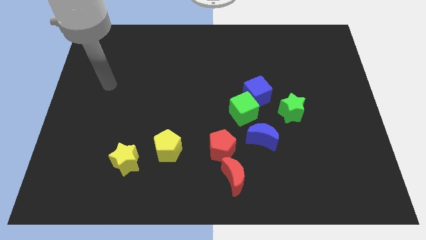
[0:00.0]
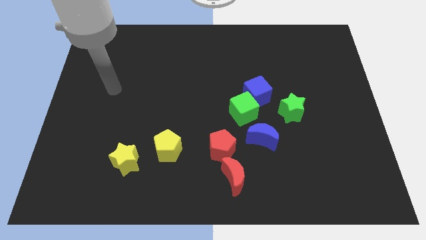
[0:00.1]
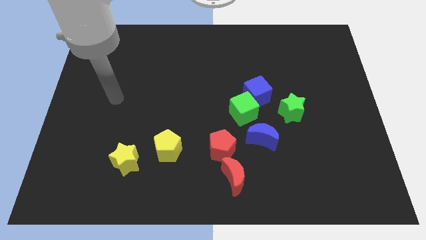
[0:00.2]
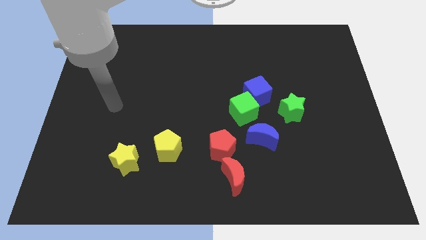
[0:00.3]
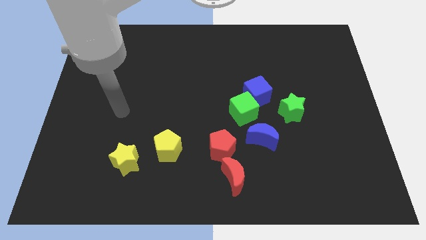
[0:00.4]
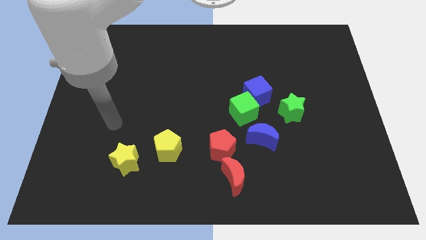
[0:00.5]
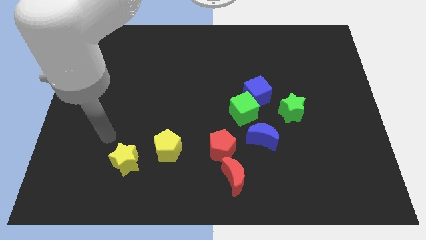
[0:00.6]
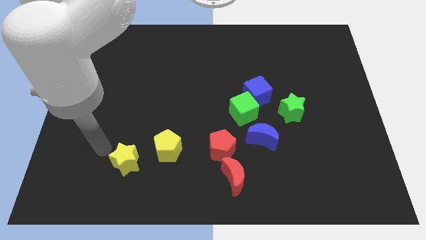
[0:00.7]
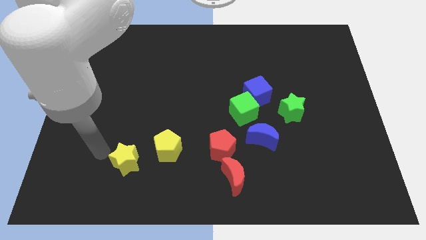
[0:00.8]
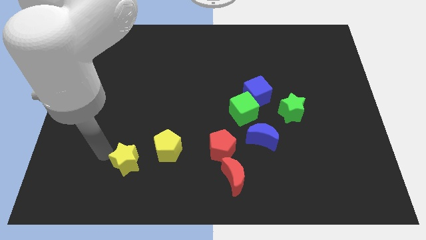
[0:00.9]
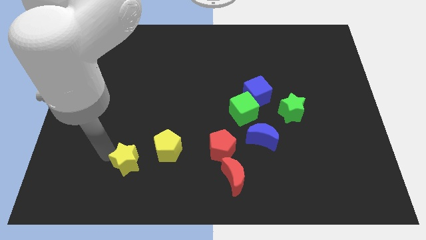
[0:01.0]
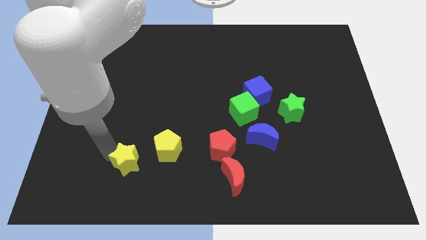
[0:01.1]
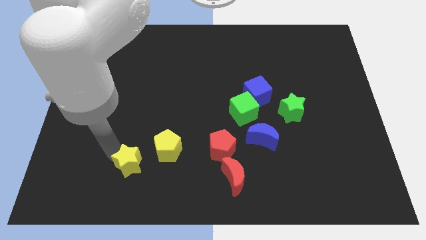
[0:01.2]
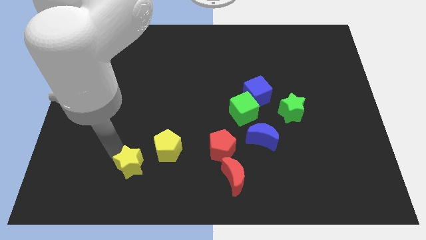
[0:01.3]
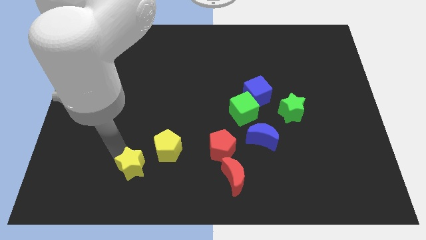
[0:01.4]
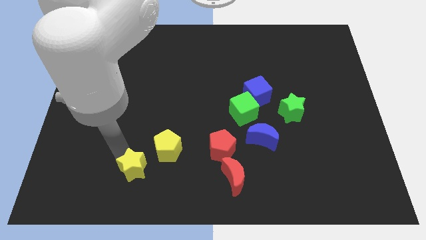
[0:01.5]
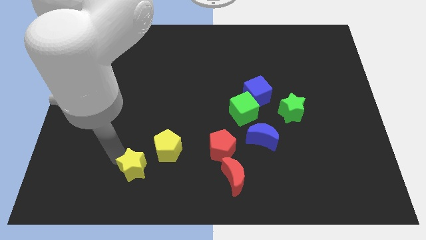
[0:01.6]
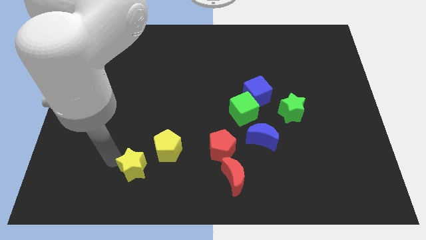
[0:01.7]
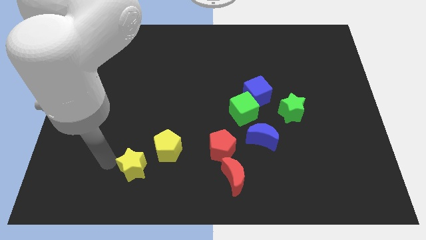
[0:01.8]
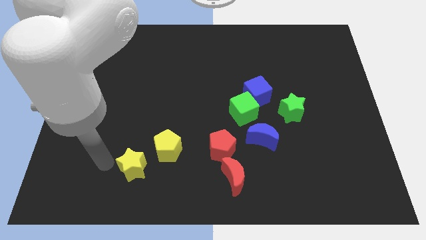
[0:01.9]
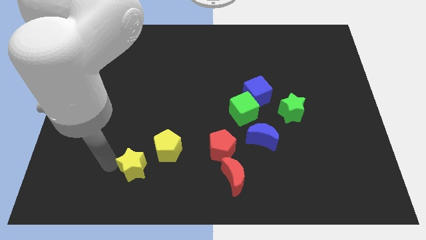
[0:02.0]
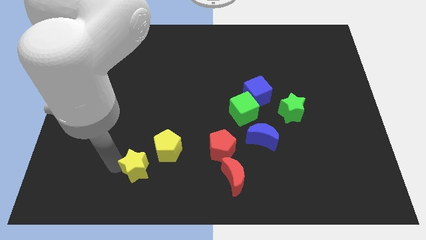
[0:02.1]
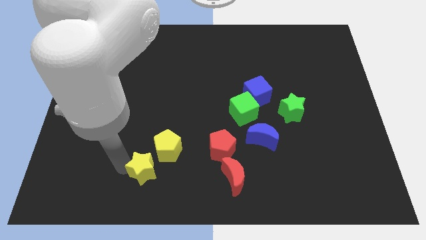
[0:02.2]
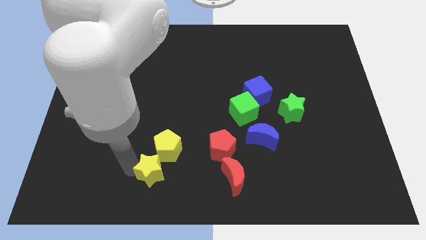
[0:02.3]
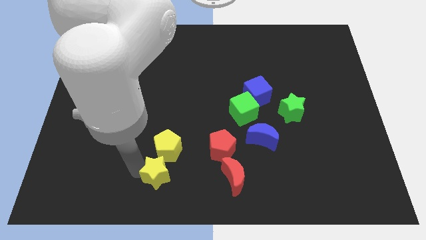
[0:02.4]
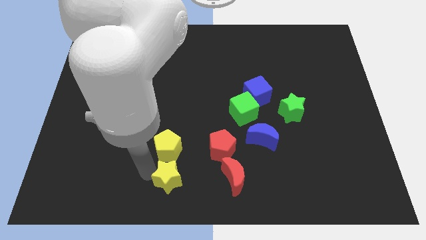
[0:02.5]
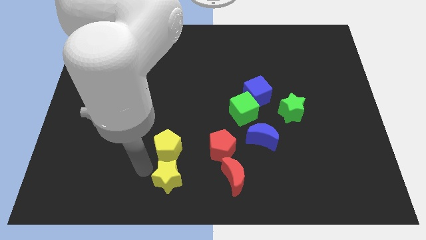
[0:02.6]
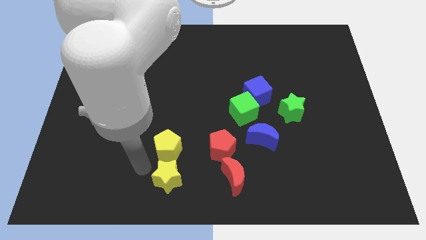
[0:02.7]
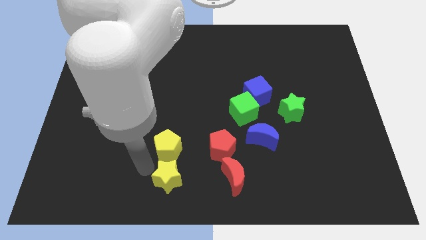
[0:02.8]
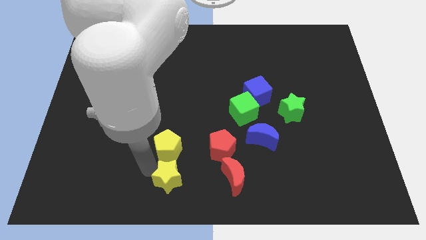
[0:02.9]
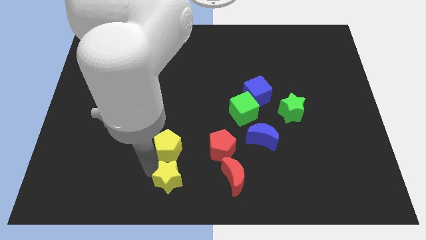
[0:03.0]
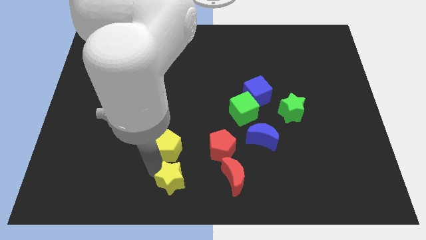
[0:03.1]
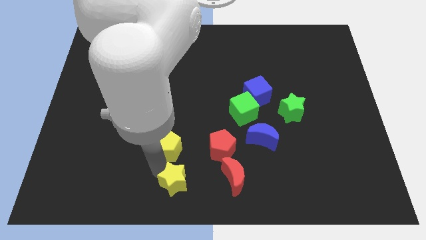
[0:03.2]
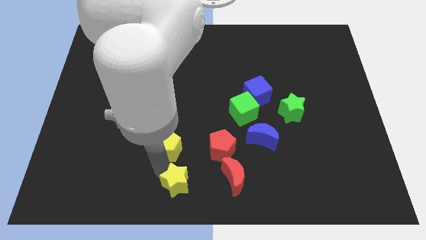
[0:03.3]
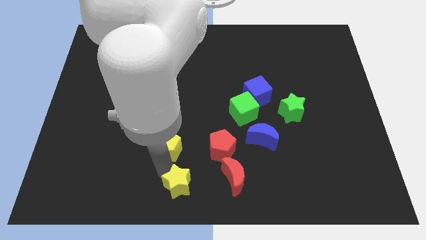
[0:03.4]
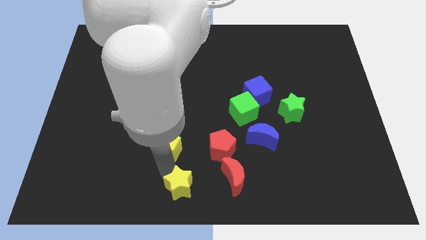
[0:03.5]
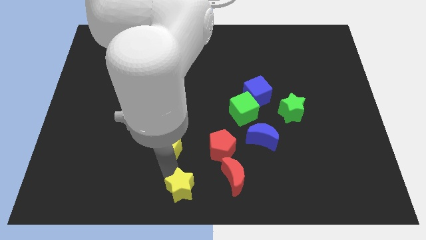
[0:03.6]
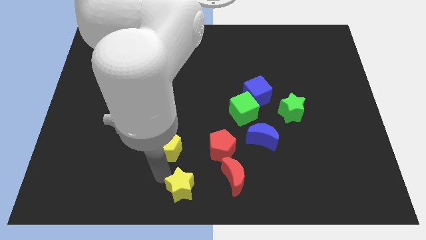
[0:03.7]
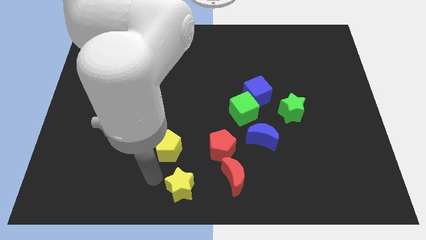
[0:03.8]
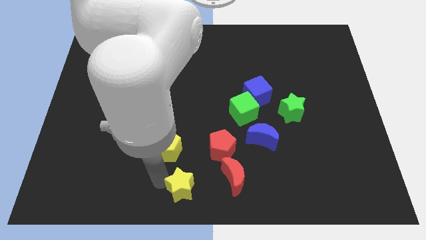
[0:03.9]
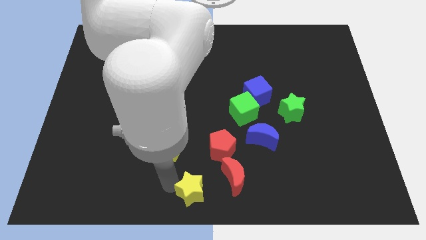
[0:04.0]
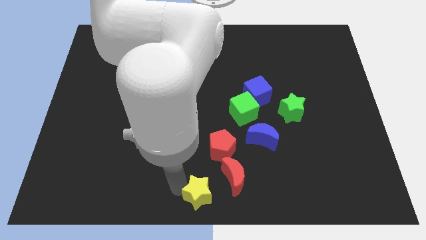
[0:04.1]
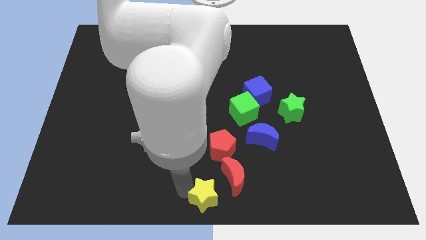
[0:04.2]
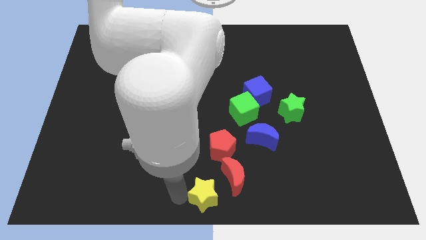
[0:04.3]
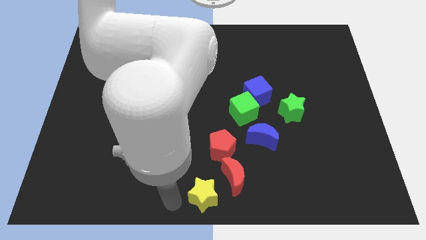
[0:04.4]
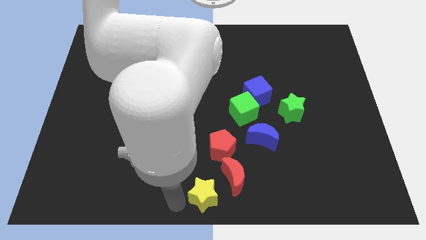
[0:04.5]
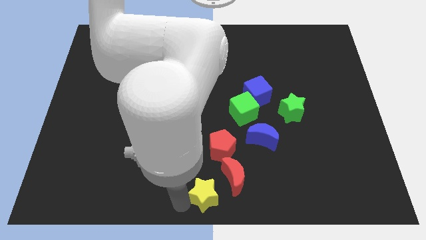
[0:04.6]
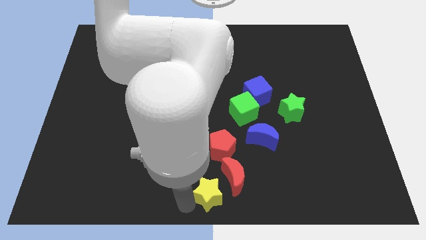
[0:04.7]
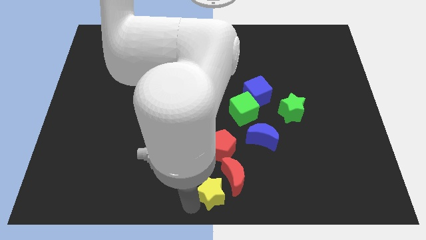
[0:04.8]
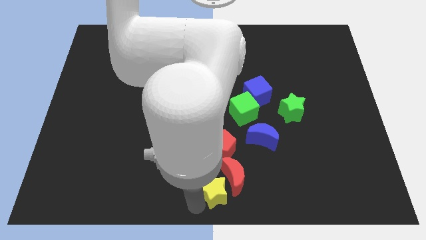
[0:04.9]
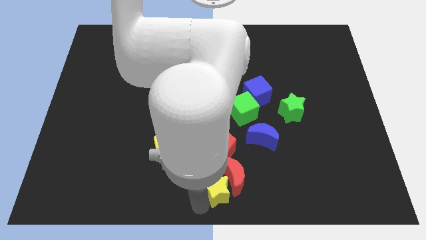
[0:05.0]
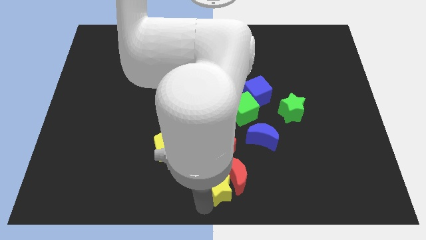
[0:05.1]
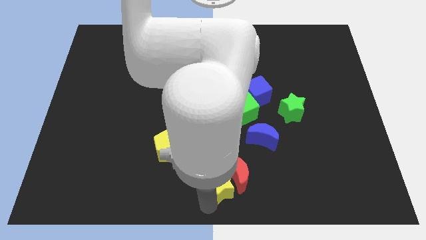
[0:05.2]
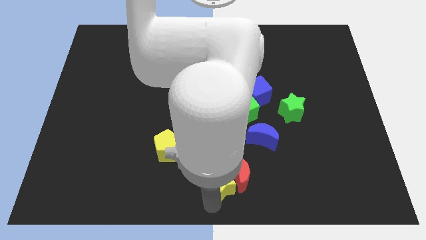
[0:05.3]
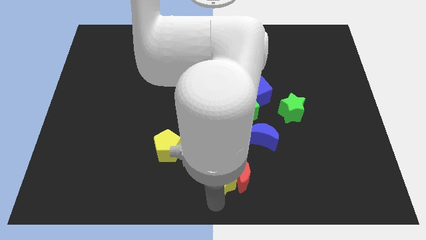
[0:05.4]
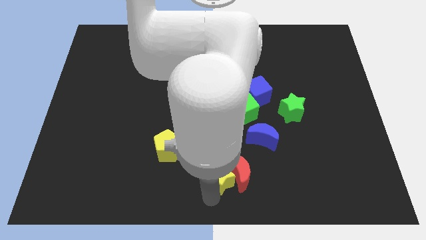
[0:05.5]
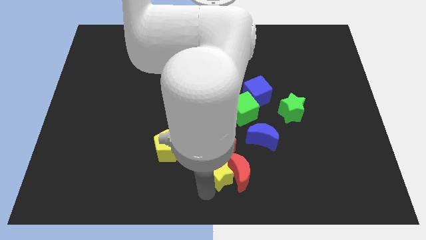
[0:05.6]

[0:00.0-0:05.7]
push the yellow star to the bottom right side of the red pentagon

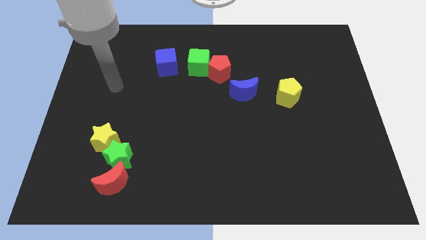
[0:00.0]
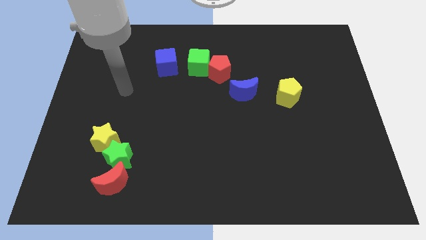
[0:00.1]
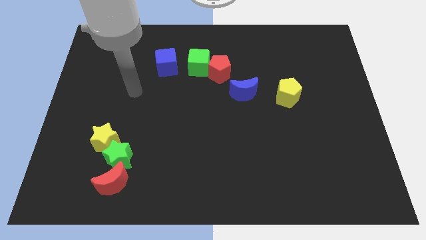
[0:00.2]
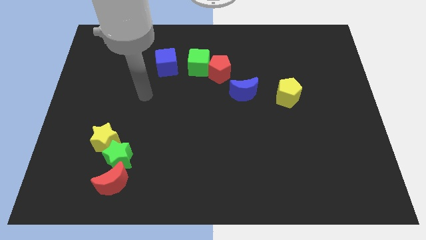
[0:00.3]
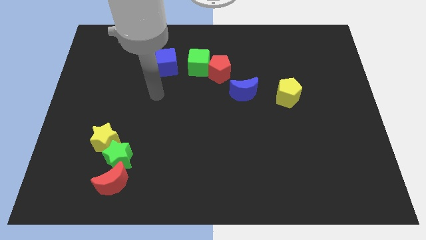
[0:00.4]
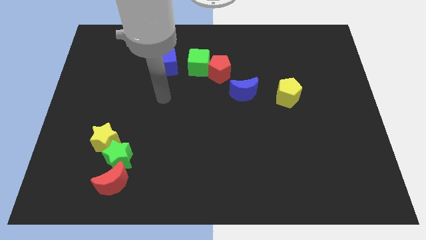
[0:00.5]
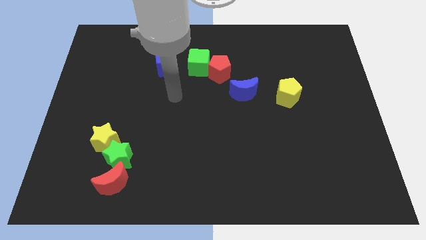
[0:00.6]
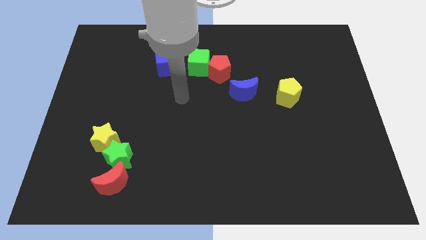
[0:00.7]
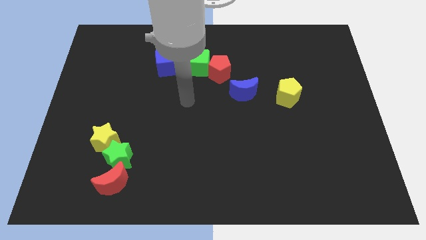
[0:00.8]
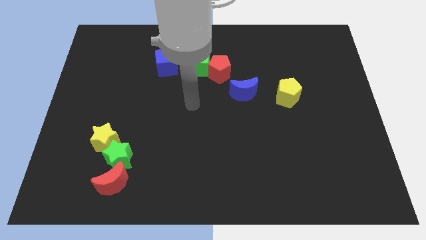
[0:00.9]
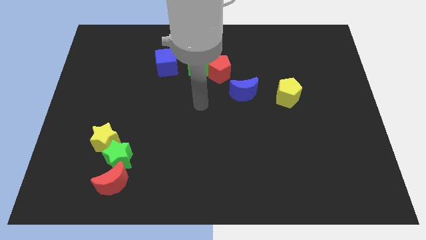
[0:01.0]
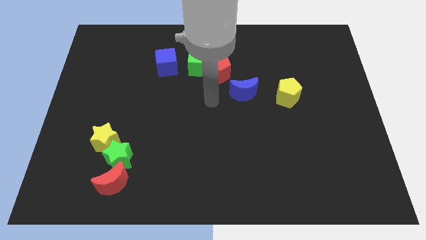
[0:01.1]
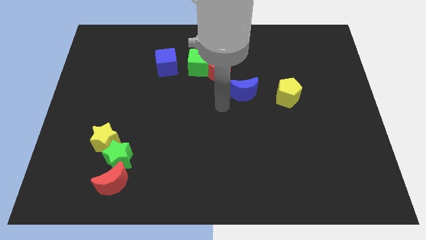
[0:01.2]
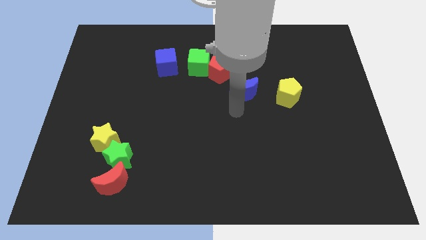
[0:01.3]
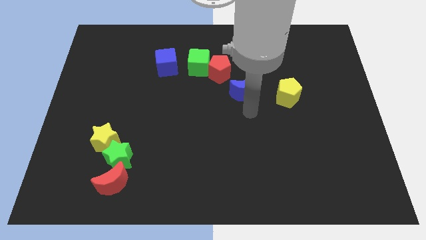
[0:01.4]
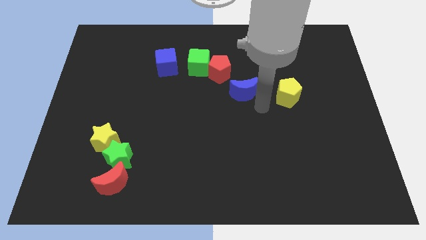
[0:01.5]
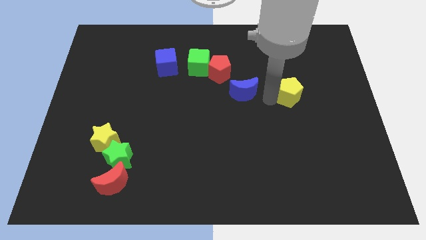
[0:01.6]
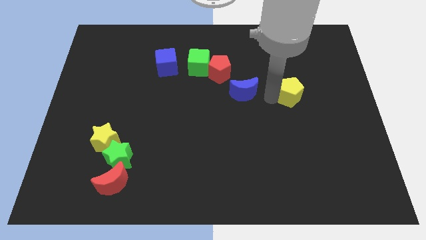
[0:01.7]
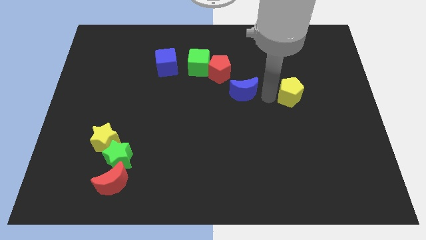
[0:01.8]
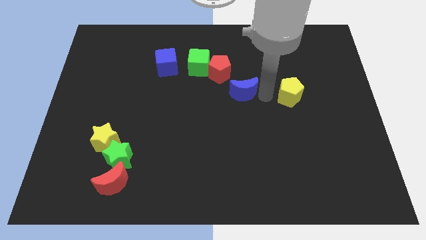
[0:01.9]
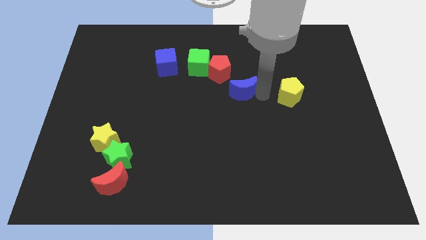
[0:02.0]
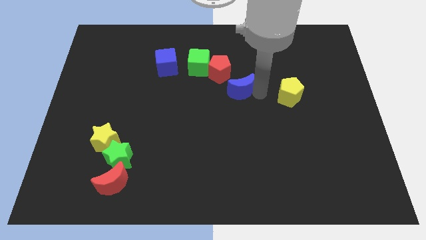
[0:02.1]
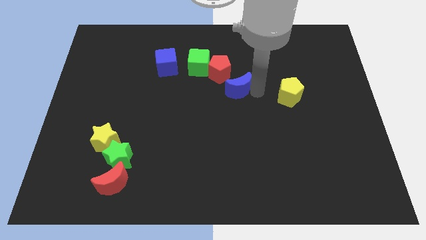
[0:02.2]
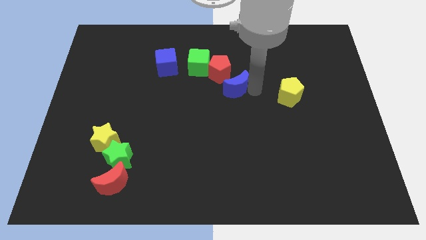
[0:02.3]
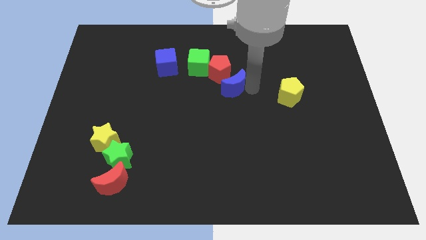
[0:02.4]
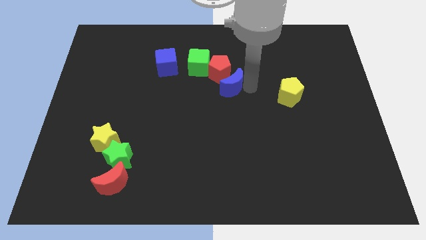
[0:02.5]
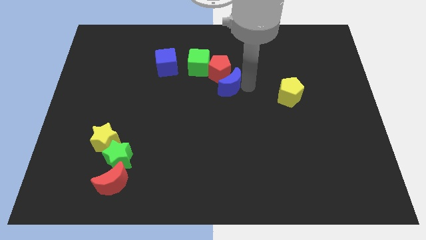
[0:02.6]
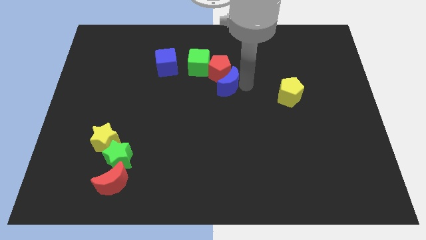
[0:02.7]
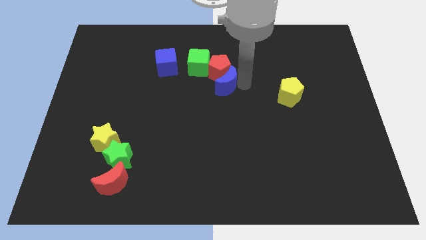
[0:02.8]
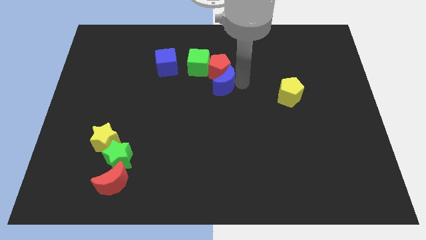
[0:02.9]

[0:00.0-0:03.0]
push the blue moon to the bottom left of the red pentagon
